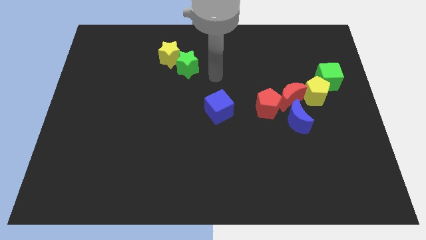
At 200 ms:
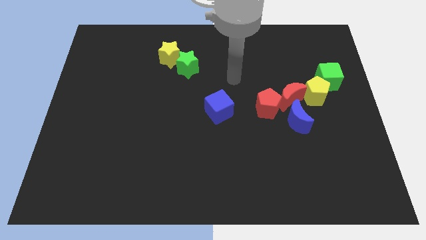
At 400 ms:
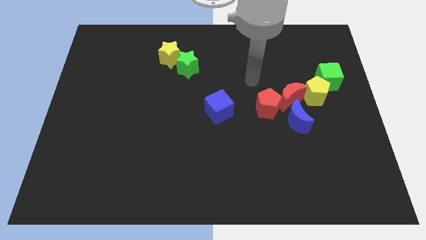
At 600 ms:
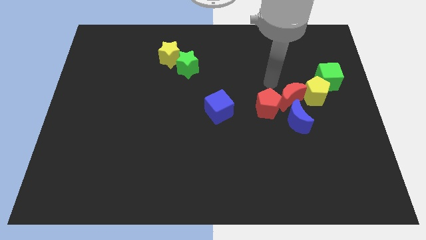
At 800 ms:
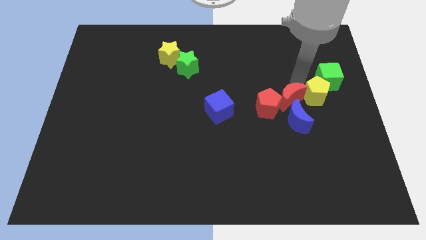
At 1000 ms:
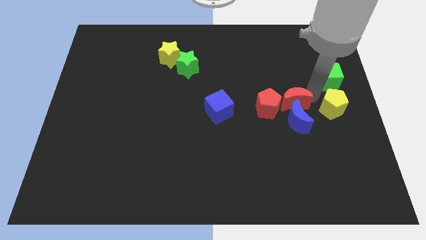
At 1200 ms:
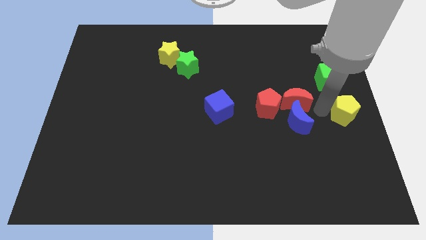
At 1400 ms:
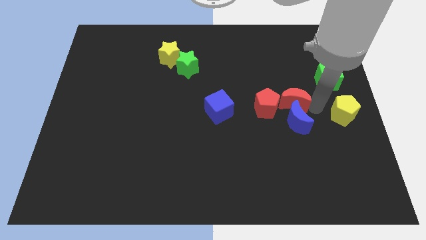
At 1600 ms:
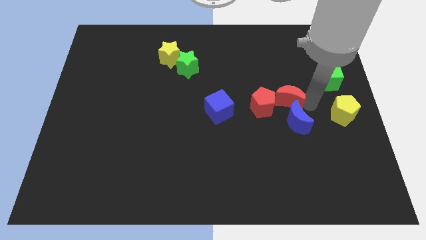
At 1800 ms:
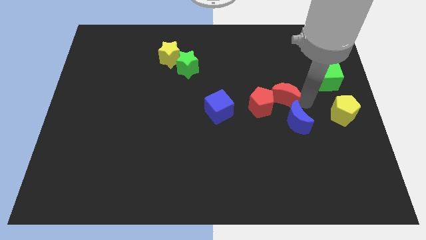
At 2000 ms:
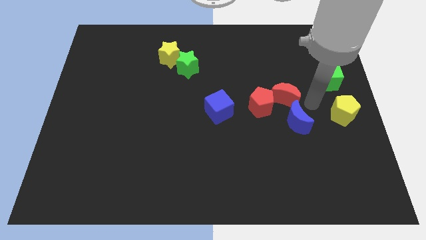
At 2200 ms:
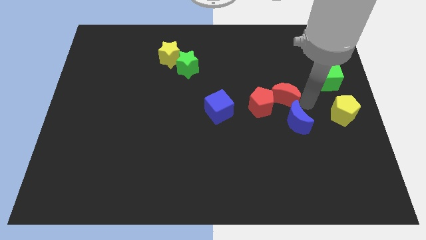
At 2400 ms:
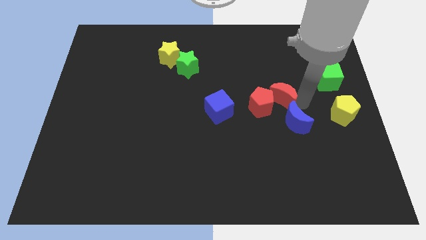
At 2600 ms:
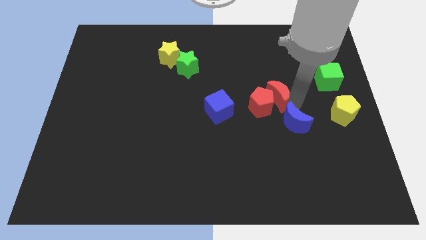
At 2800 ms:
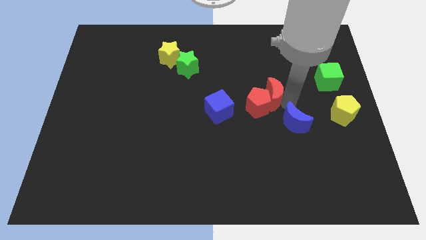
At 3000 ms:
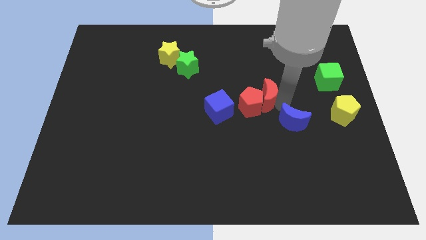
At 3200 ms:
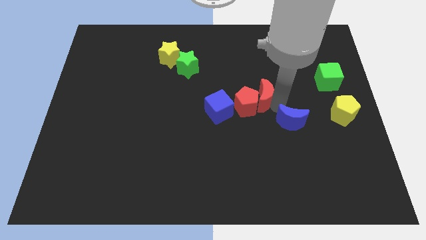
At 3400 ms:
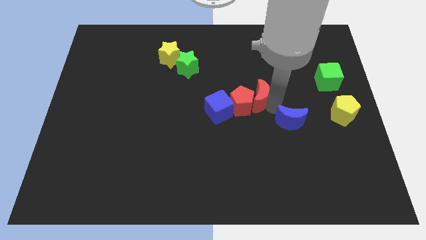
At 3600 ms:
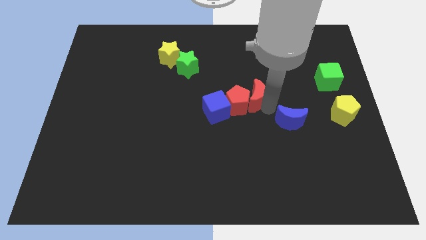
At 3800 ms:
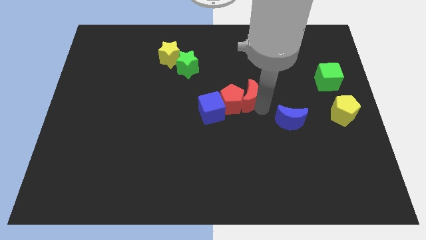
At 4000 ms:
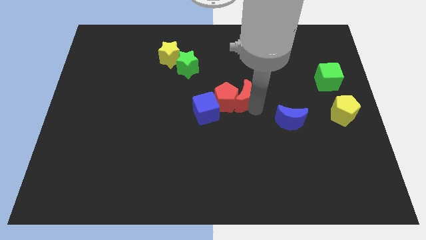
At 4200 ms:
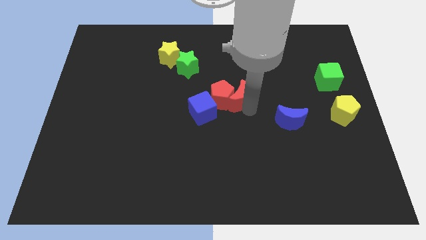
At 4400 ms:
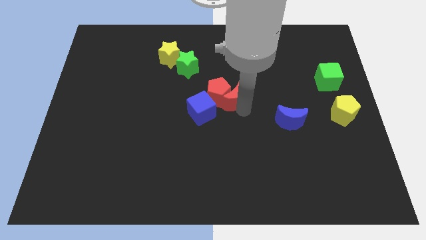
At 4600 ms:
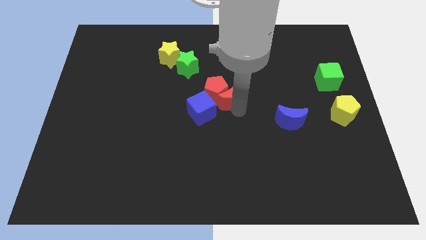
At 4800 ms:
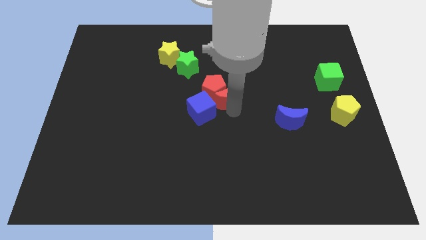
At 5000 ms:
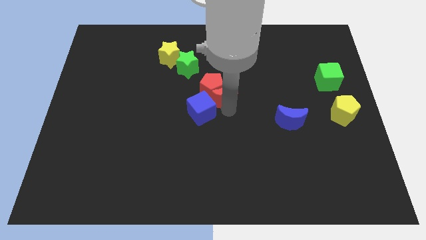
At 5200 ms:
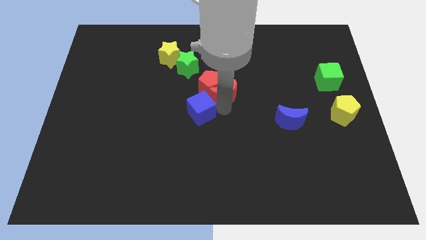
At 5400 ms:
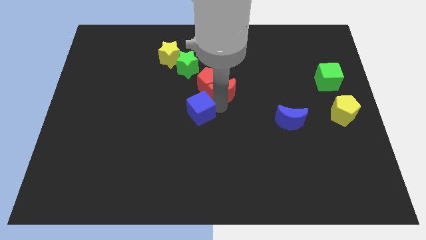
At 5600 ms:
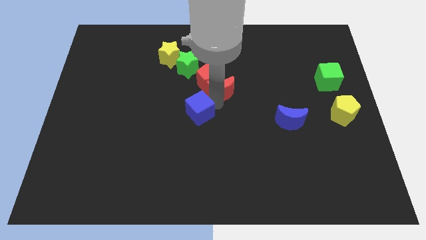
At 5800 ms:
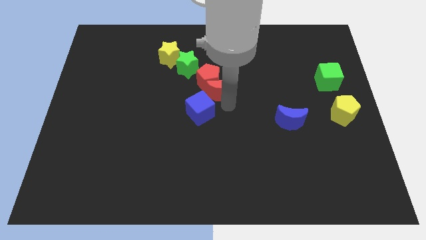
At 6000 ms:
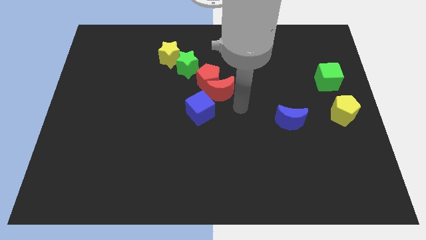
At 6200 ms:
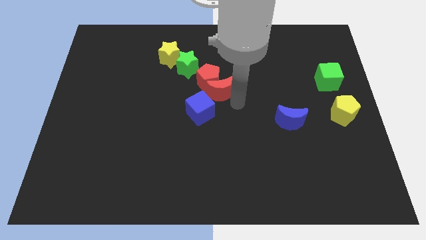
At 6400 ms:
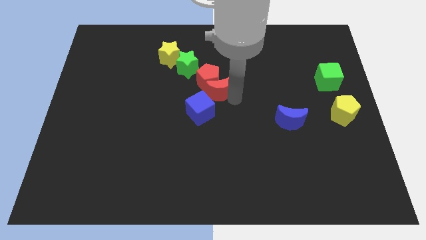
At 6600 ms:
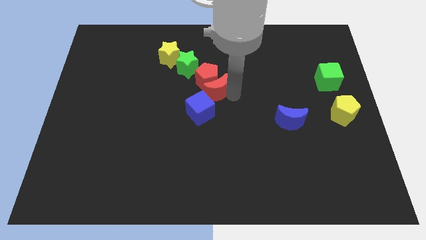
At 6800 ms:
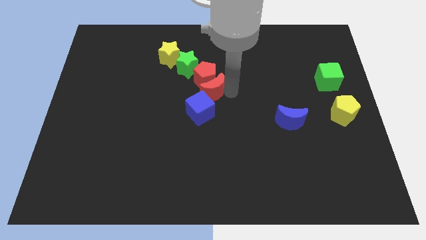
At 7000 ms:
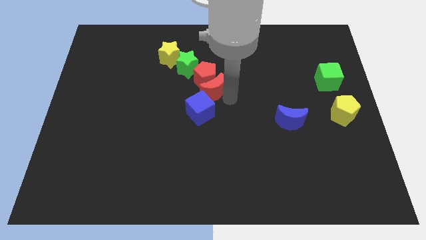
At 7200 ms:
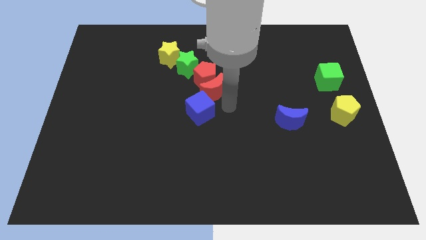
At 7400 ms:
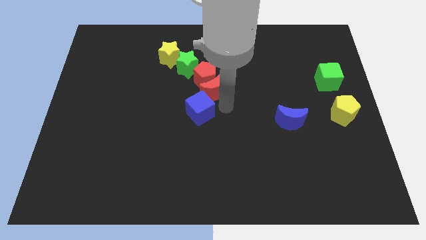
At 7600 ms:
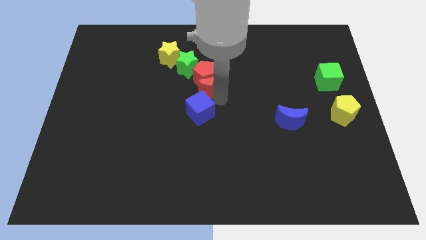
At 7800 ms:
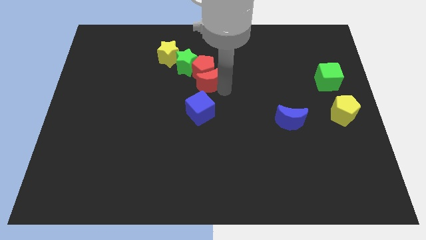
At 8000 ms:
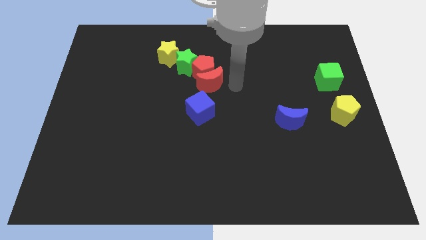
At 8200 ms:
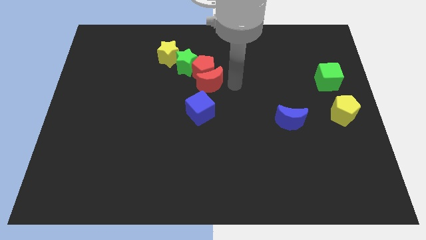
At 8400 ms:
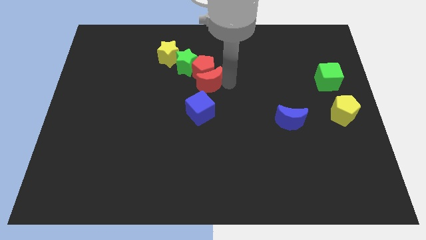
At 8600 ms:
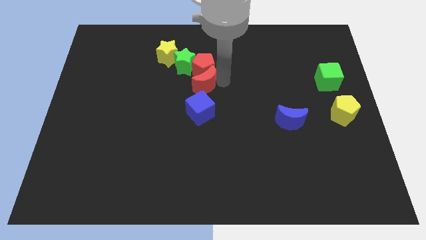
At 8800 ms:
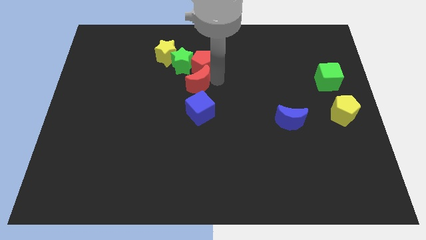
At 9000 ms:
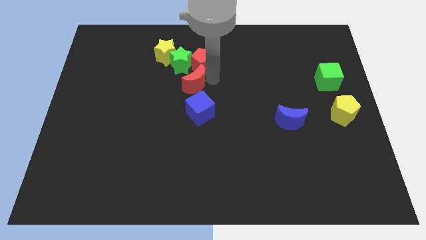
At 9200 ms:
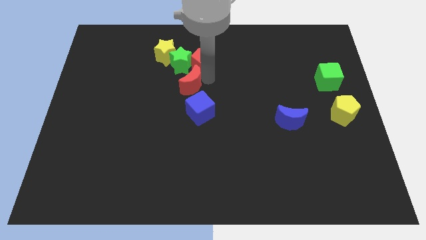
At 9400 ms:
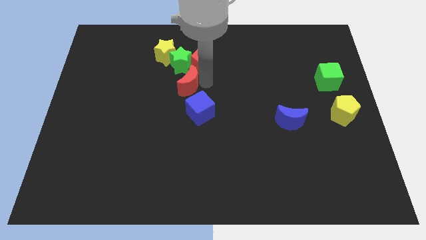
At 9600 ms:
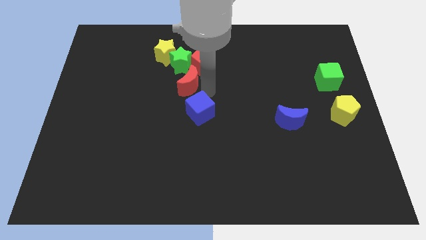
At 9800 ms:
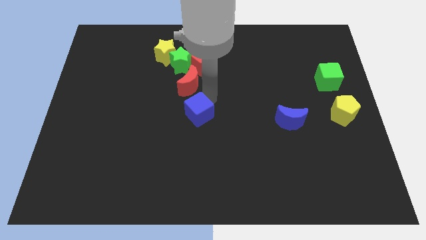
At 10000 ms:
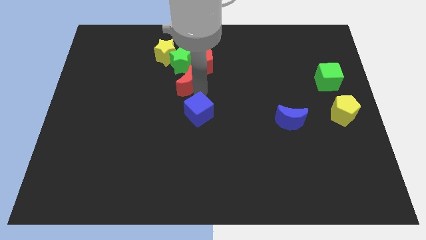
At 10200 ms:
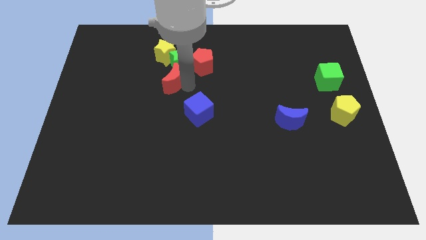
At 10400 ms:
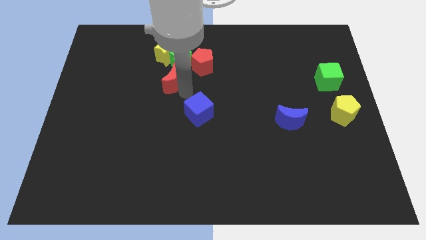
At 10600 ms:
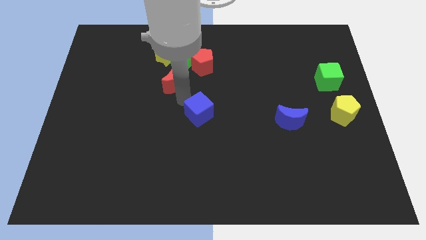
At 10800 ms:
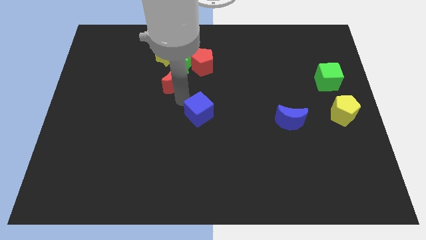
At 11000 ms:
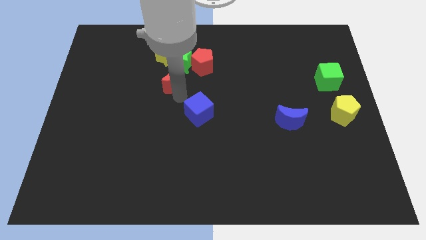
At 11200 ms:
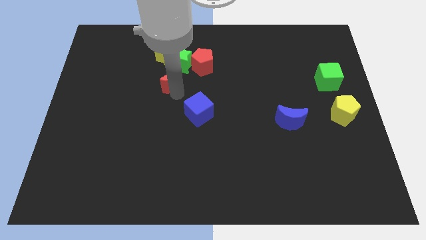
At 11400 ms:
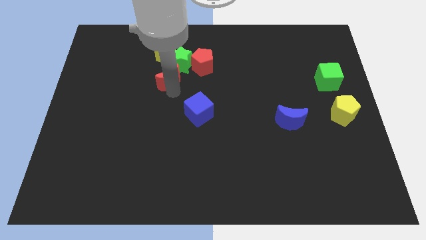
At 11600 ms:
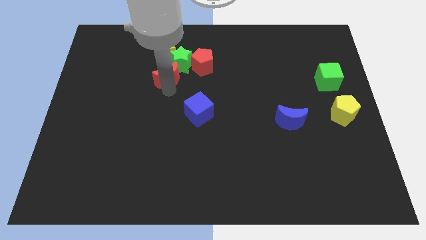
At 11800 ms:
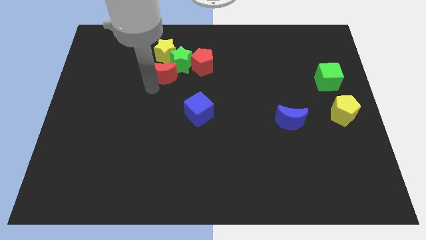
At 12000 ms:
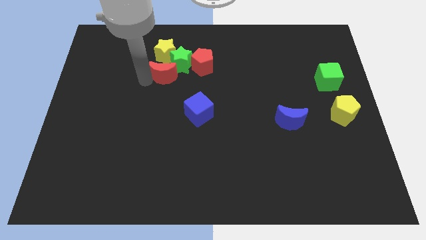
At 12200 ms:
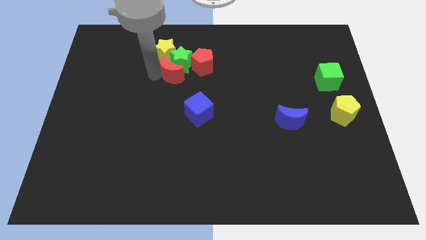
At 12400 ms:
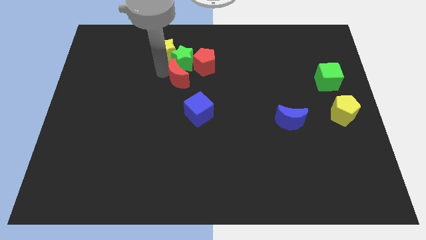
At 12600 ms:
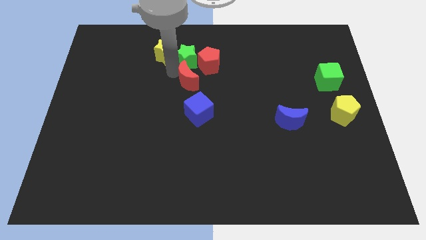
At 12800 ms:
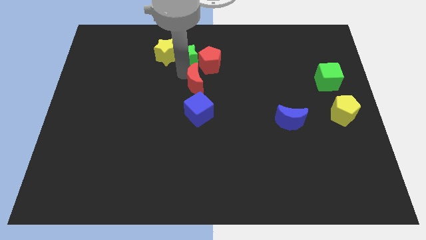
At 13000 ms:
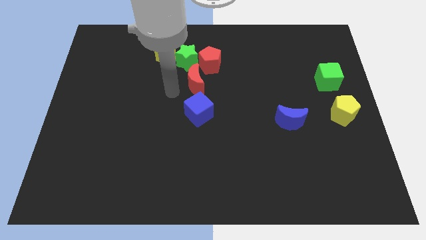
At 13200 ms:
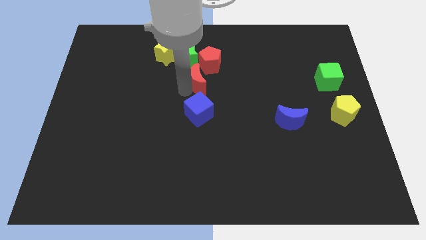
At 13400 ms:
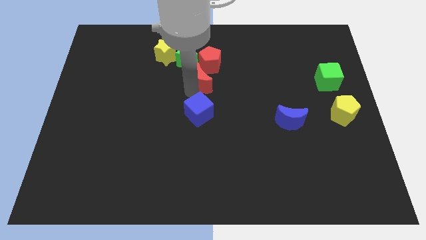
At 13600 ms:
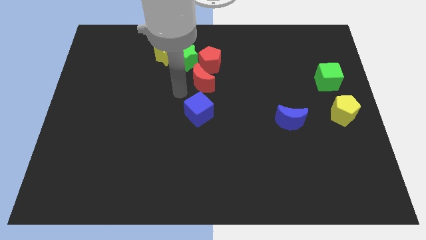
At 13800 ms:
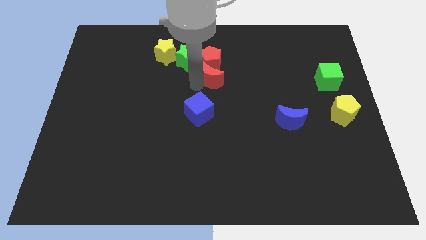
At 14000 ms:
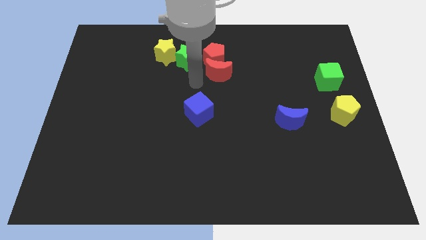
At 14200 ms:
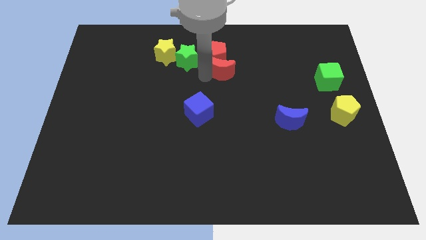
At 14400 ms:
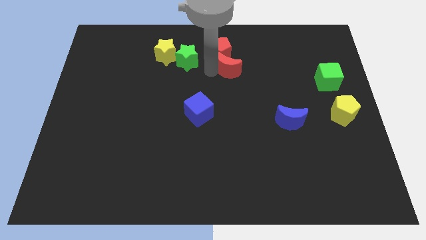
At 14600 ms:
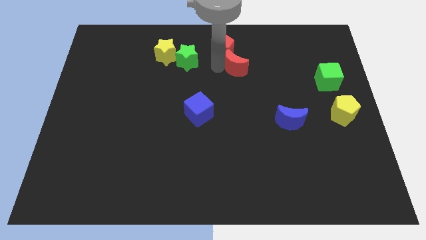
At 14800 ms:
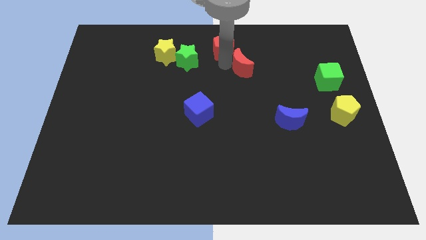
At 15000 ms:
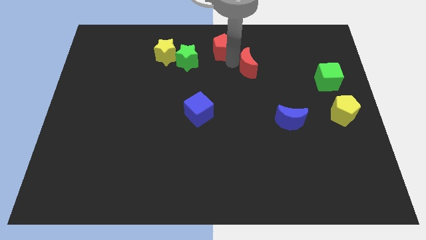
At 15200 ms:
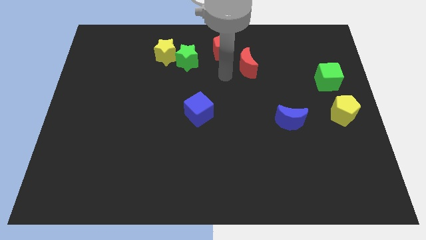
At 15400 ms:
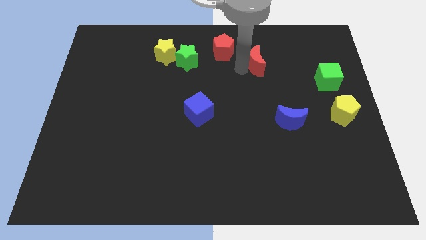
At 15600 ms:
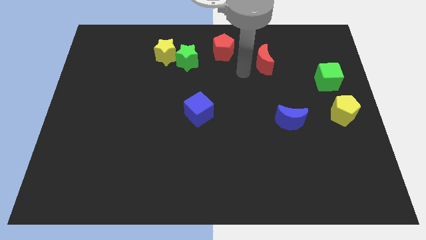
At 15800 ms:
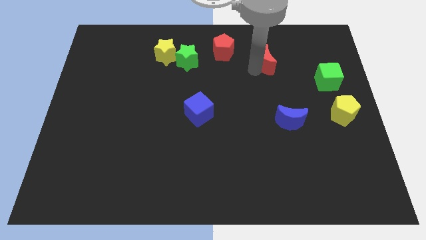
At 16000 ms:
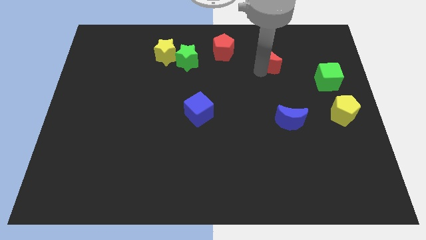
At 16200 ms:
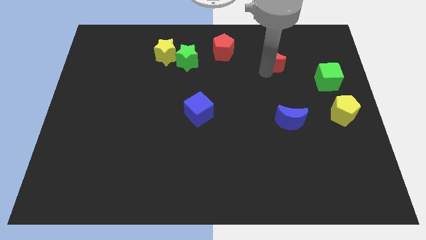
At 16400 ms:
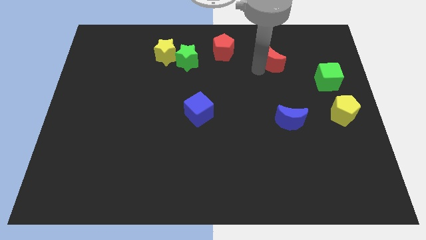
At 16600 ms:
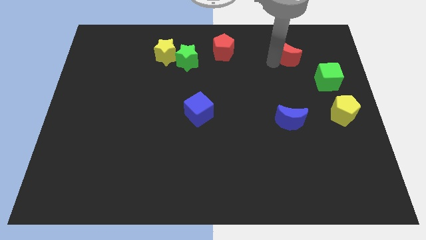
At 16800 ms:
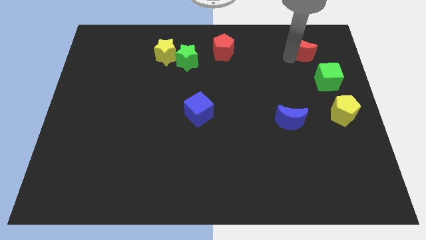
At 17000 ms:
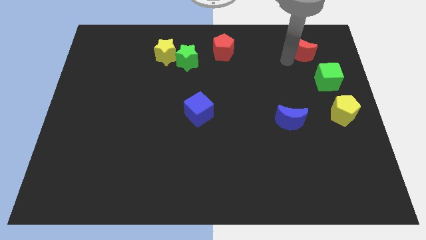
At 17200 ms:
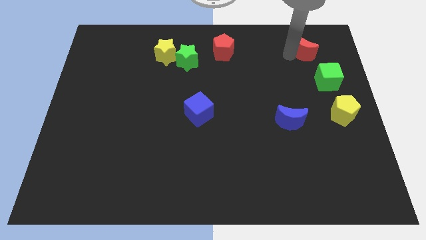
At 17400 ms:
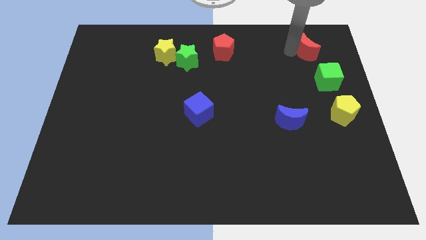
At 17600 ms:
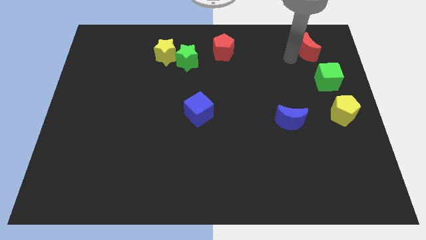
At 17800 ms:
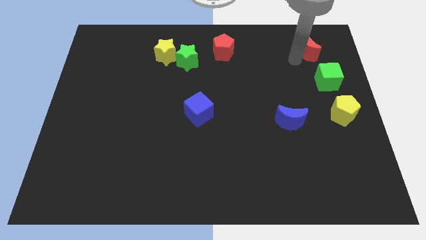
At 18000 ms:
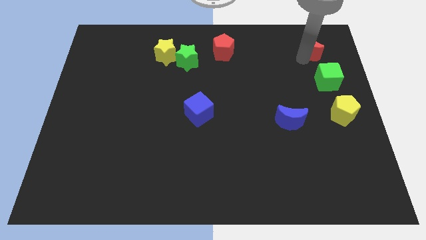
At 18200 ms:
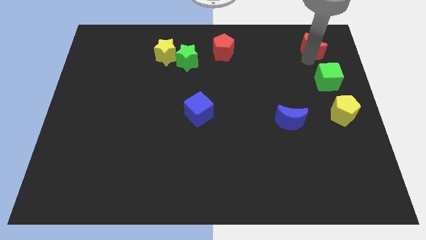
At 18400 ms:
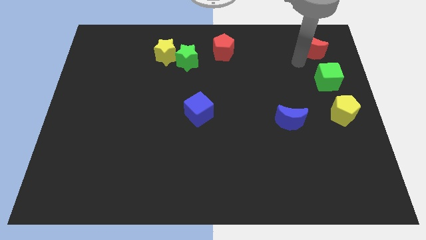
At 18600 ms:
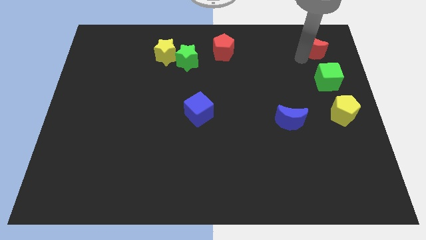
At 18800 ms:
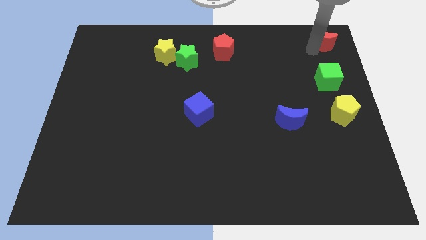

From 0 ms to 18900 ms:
move the red moon to the top right of the board
